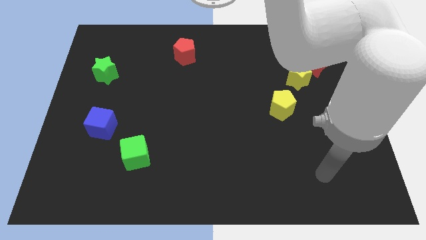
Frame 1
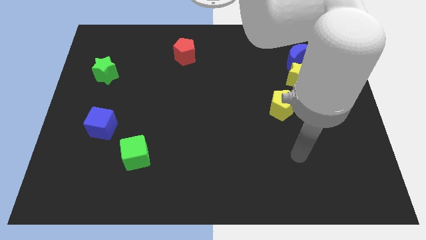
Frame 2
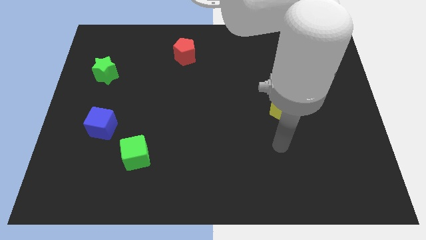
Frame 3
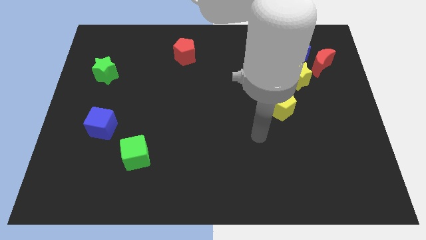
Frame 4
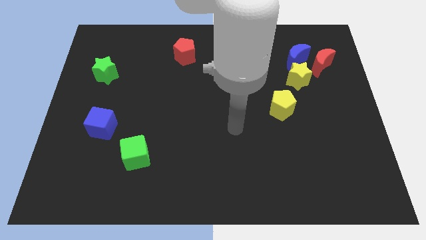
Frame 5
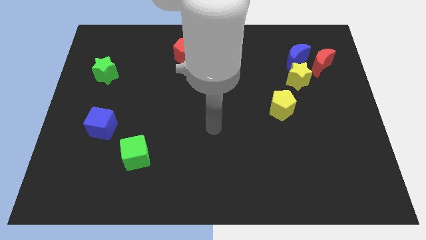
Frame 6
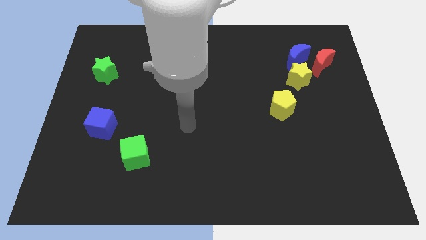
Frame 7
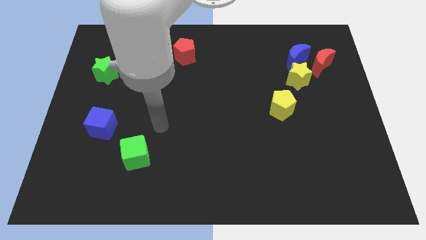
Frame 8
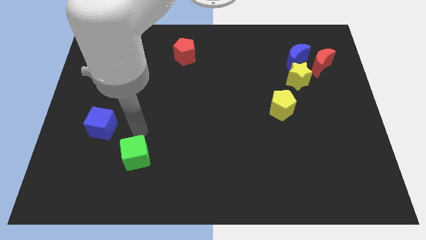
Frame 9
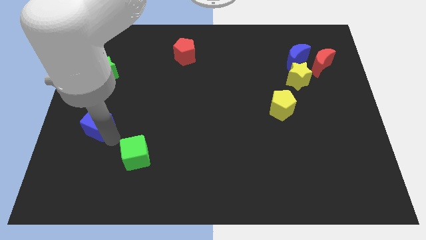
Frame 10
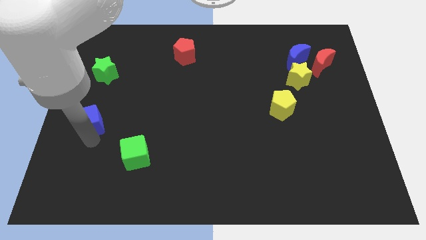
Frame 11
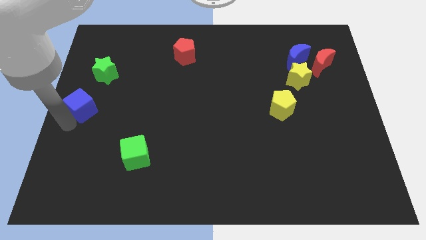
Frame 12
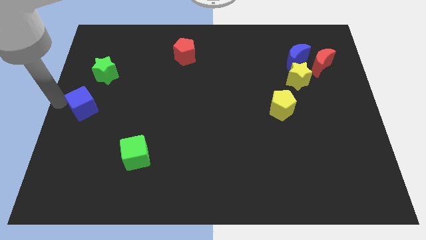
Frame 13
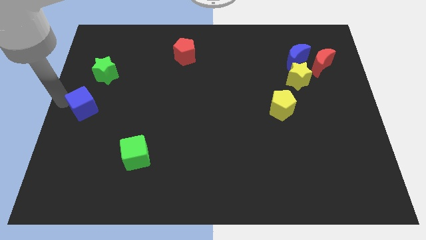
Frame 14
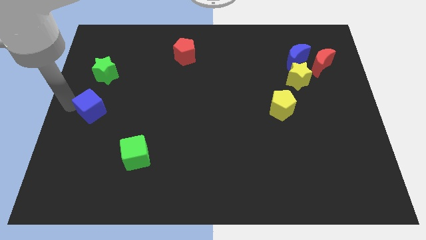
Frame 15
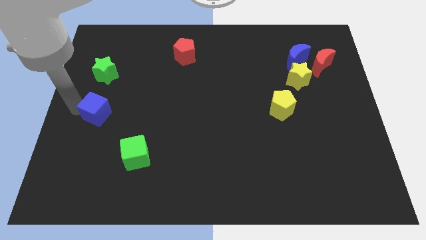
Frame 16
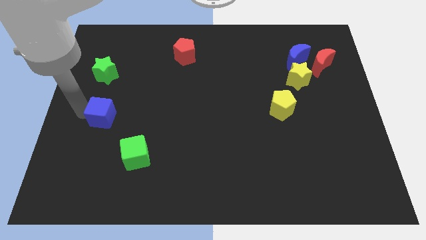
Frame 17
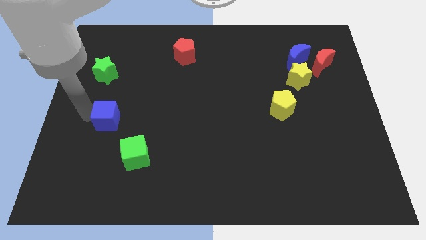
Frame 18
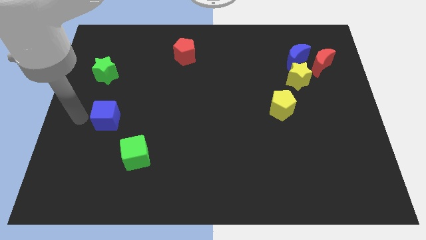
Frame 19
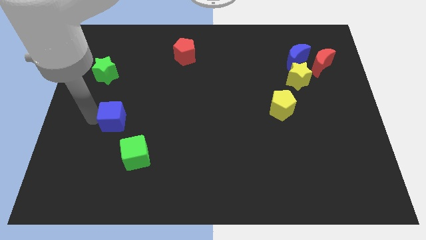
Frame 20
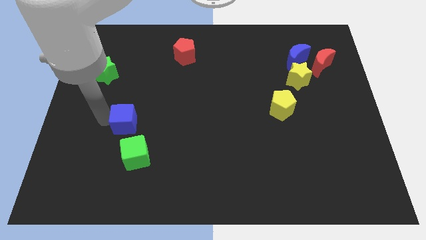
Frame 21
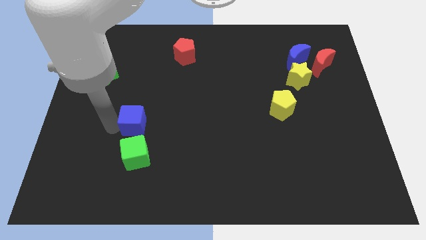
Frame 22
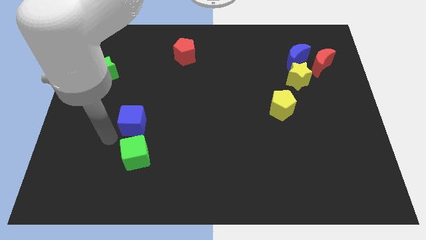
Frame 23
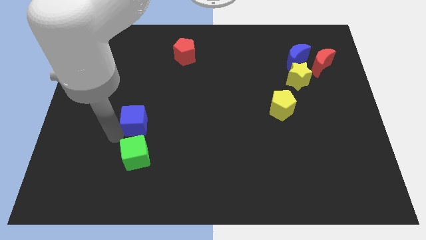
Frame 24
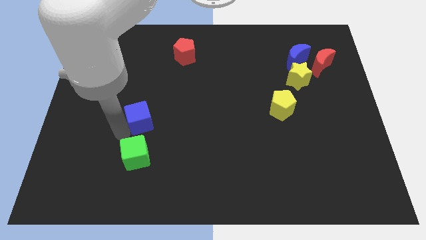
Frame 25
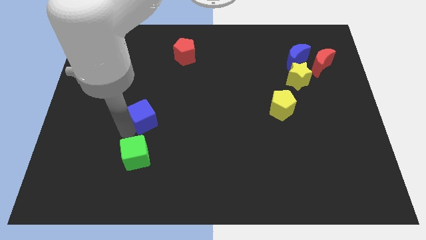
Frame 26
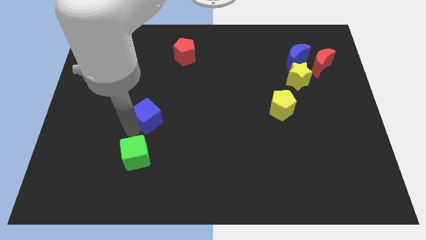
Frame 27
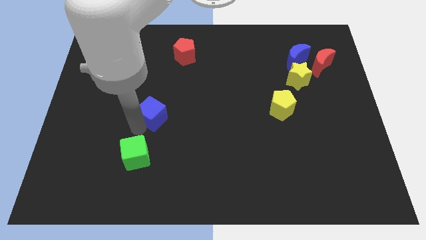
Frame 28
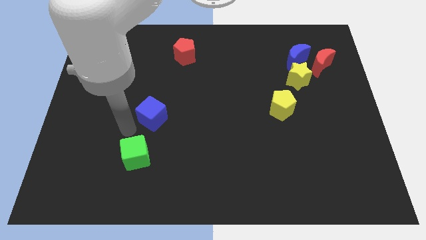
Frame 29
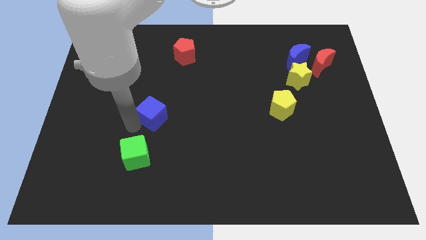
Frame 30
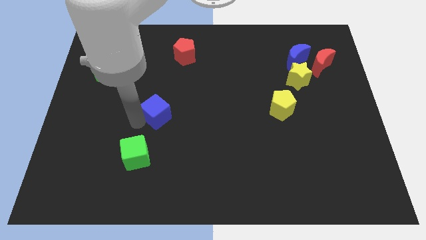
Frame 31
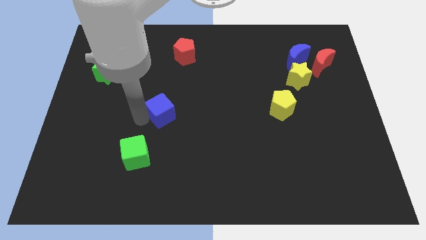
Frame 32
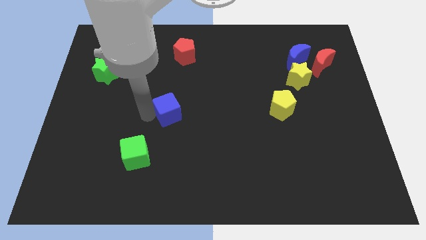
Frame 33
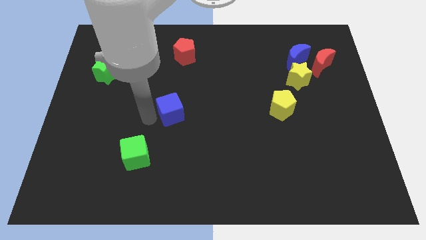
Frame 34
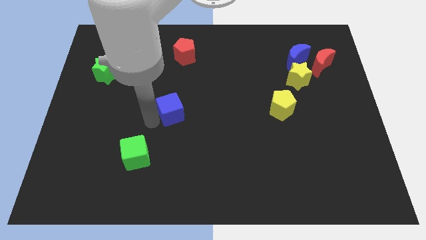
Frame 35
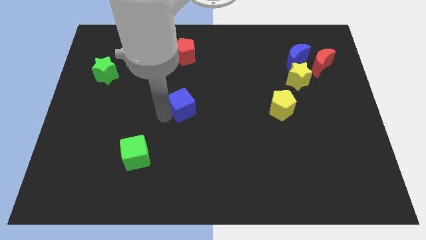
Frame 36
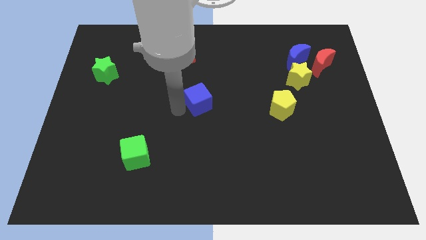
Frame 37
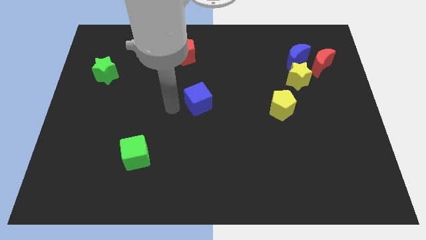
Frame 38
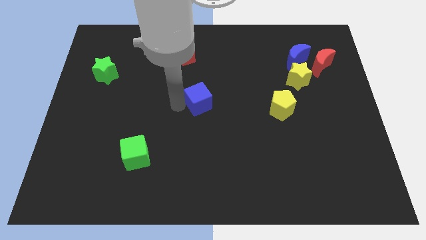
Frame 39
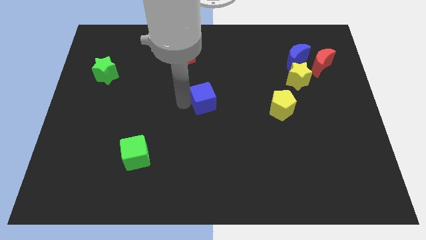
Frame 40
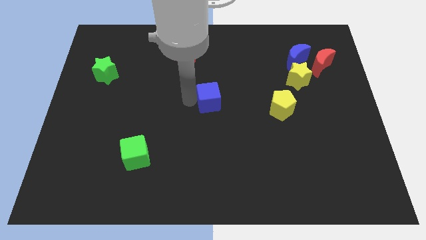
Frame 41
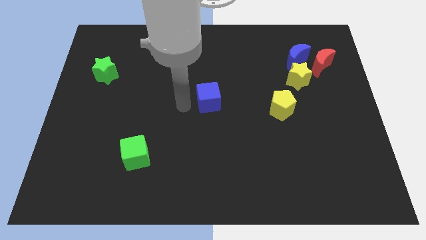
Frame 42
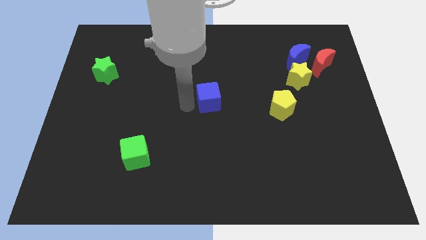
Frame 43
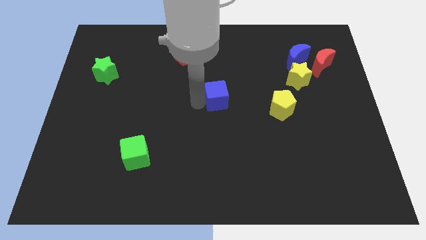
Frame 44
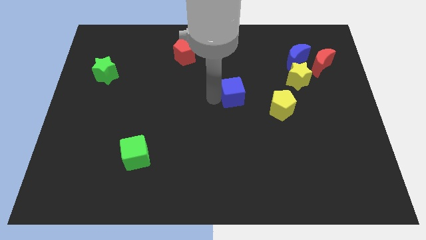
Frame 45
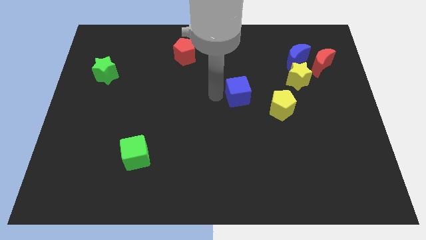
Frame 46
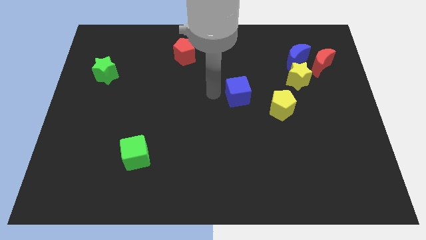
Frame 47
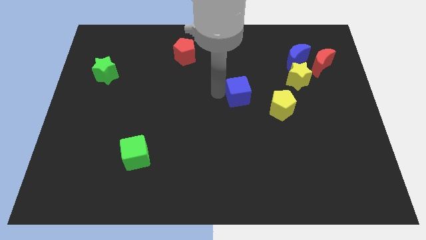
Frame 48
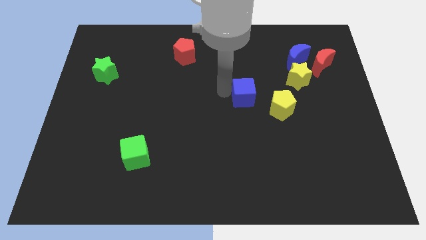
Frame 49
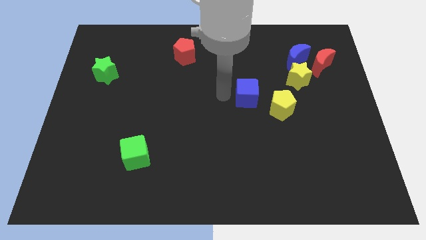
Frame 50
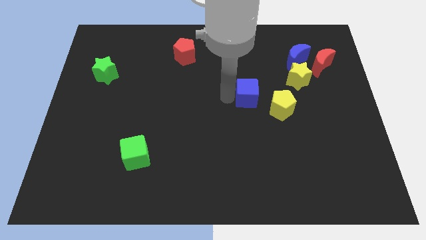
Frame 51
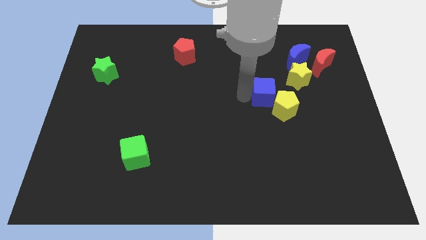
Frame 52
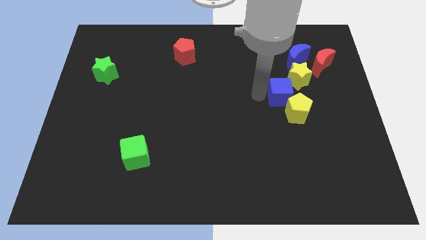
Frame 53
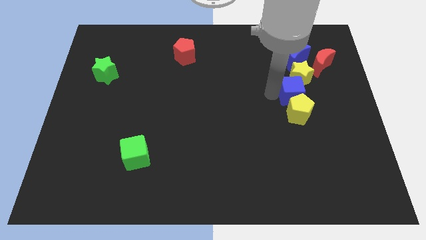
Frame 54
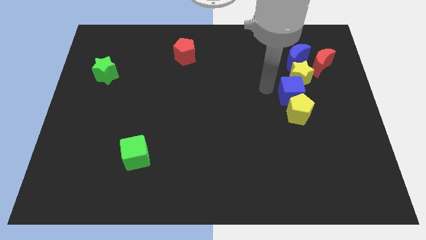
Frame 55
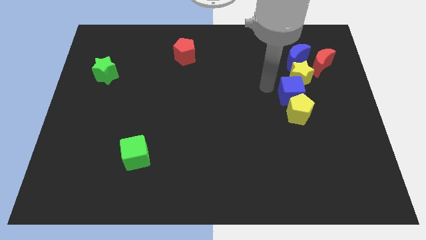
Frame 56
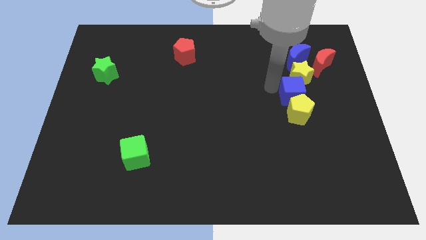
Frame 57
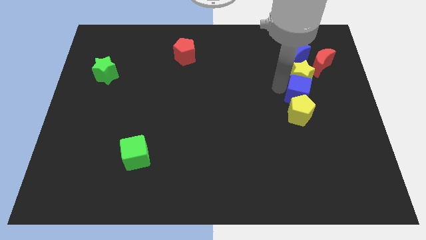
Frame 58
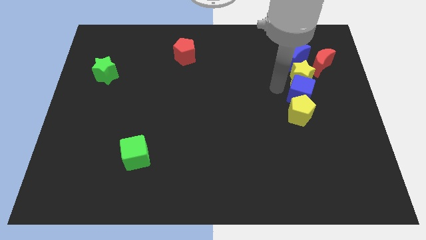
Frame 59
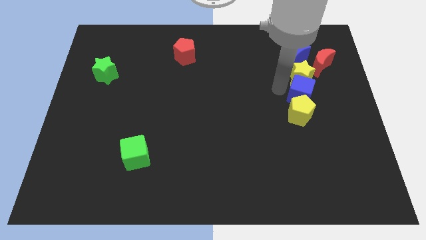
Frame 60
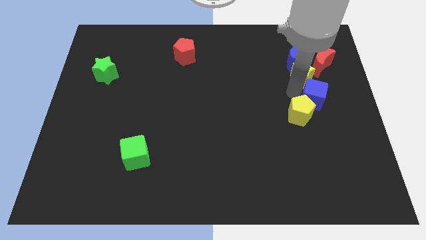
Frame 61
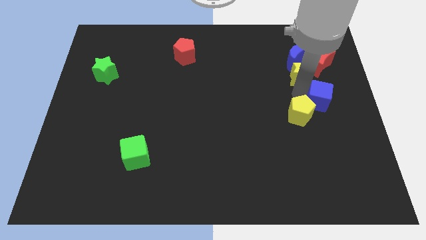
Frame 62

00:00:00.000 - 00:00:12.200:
slide the blue cube to the center right
